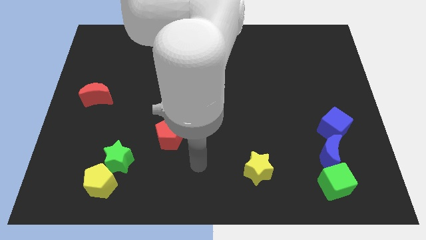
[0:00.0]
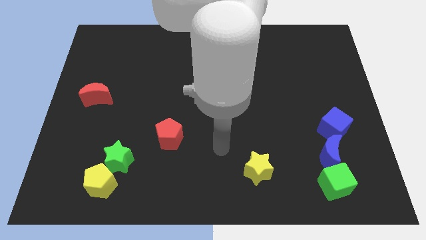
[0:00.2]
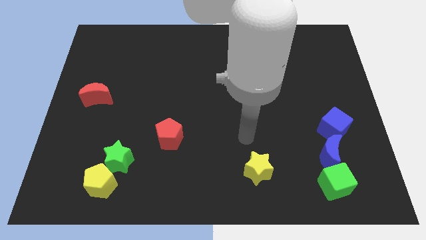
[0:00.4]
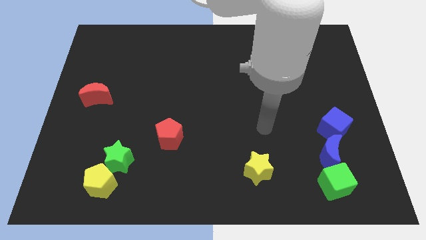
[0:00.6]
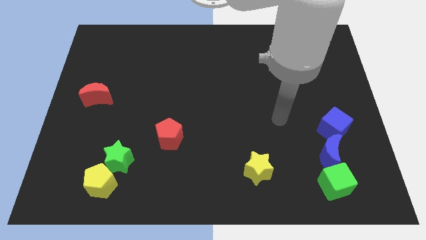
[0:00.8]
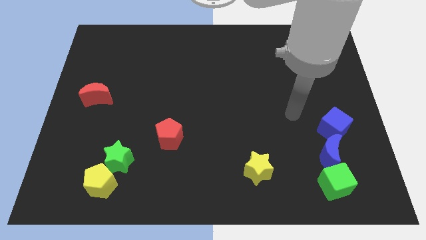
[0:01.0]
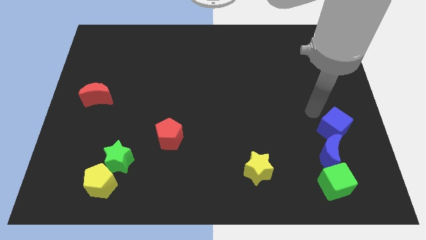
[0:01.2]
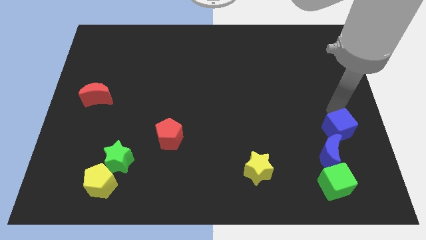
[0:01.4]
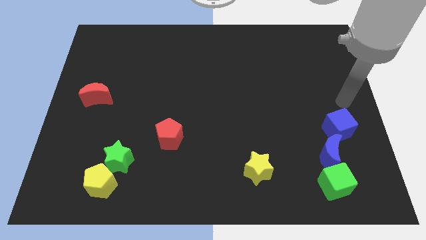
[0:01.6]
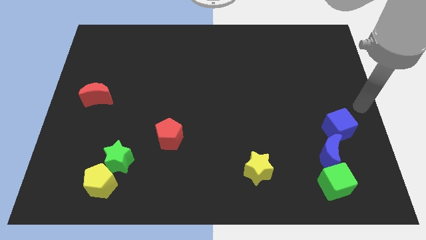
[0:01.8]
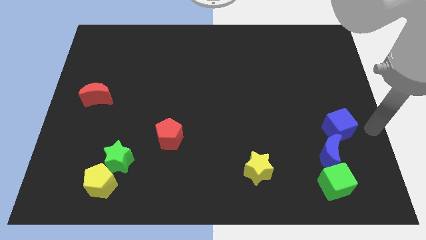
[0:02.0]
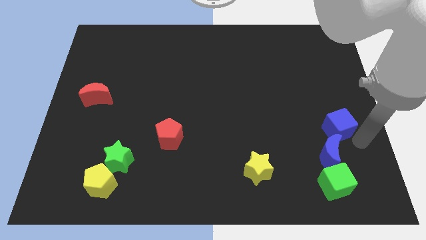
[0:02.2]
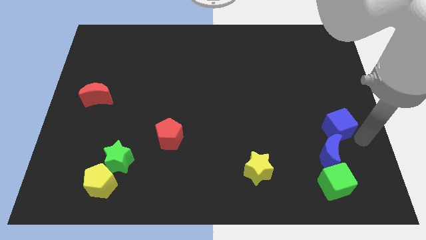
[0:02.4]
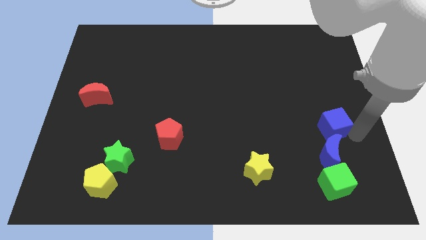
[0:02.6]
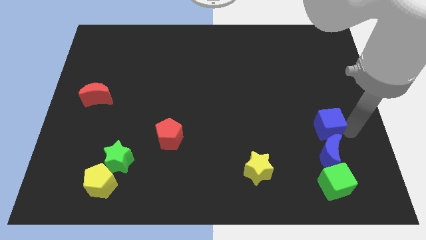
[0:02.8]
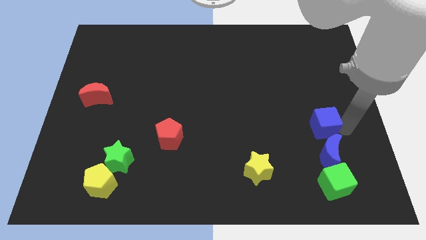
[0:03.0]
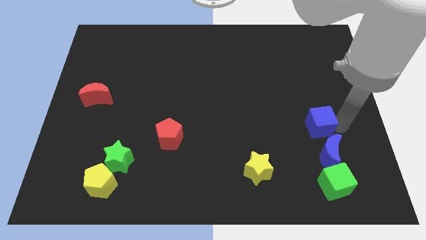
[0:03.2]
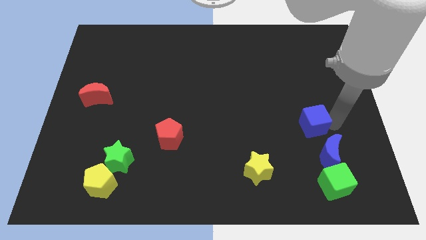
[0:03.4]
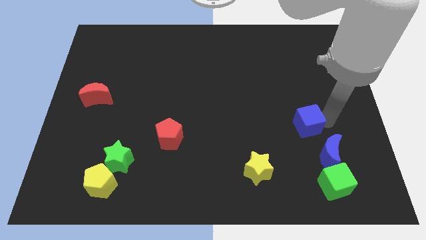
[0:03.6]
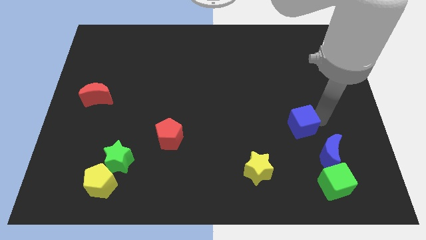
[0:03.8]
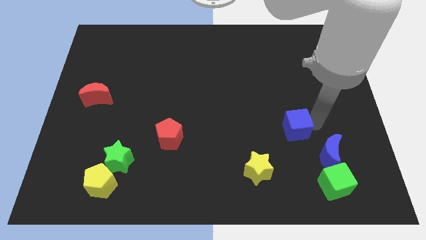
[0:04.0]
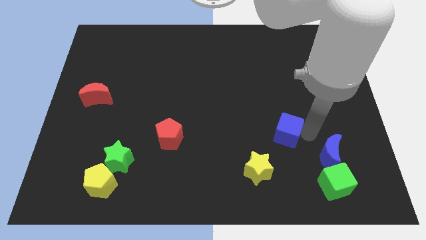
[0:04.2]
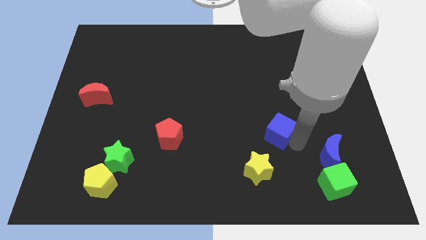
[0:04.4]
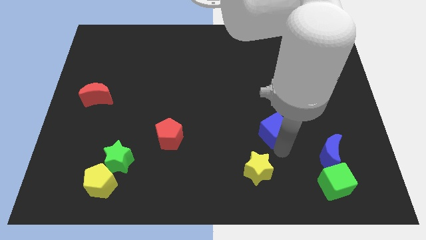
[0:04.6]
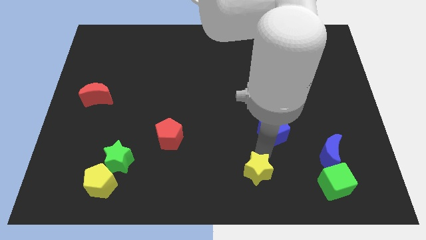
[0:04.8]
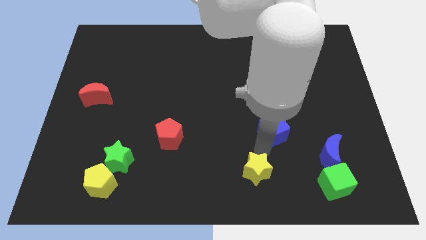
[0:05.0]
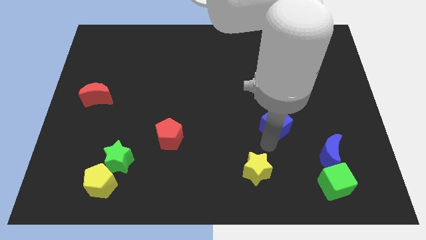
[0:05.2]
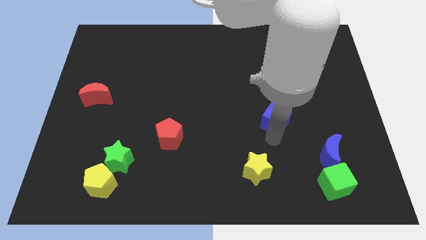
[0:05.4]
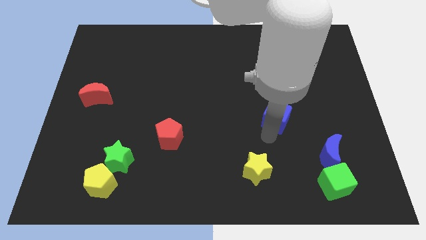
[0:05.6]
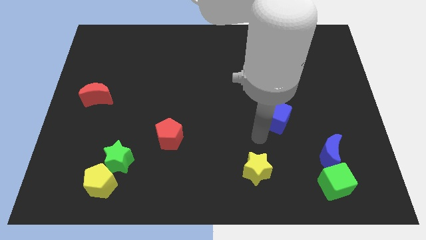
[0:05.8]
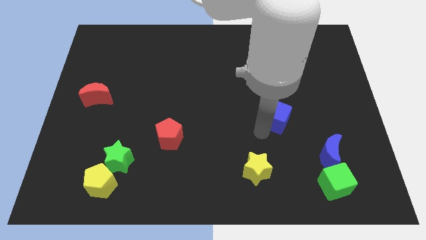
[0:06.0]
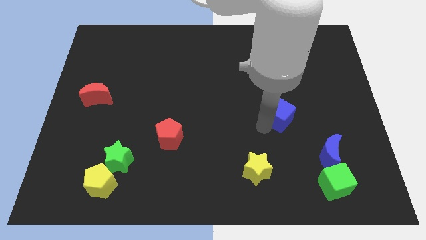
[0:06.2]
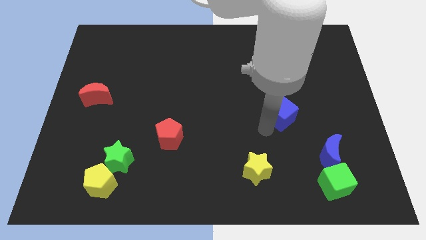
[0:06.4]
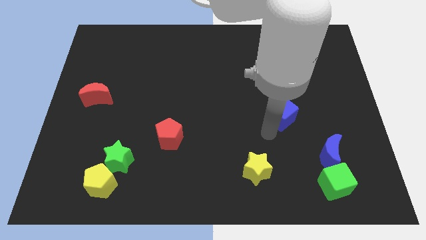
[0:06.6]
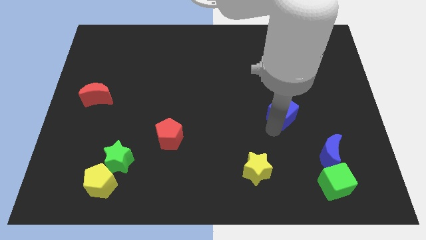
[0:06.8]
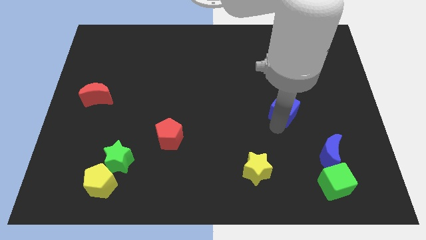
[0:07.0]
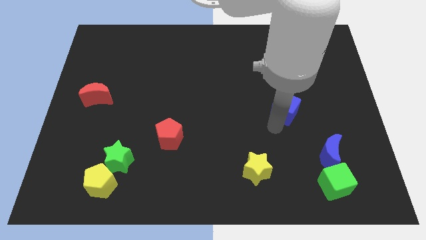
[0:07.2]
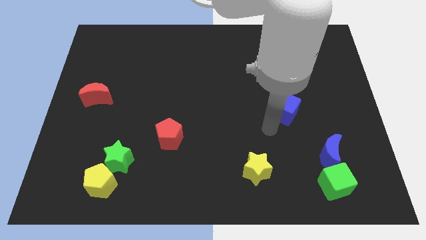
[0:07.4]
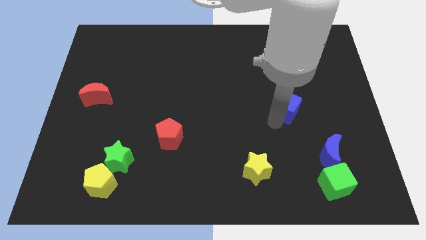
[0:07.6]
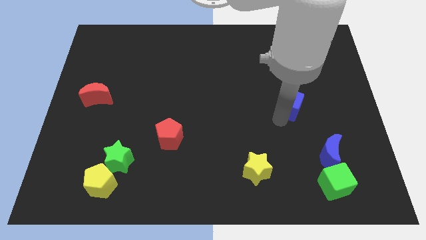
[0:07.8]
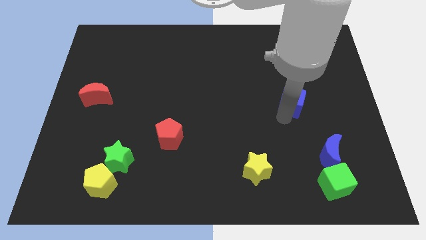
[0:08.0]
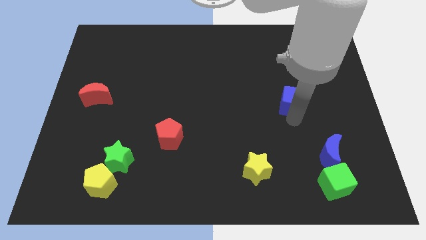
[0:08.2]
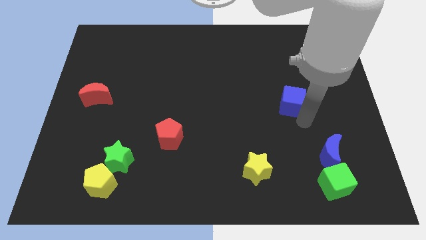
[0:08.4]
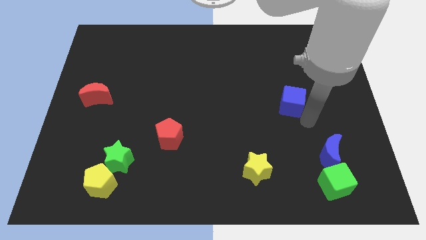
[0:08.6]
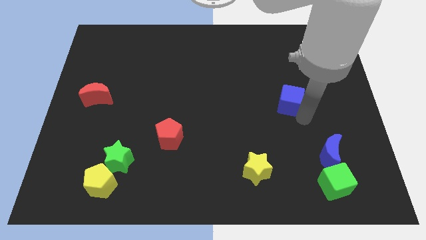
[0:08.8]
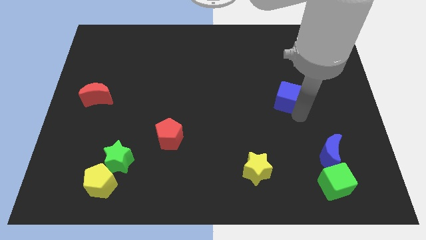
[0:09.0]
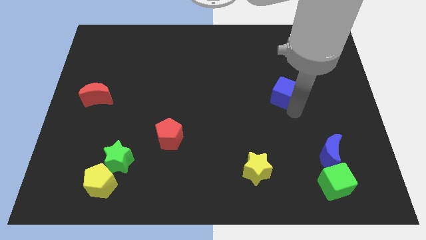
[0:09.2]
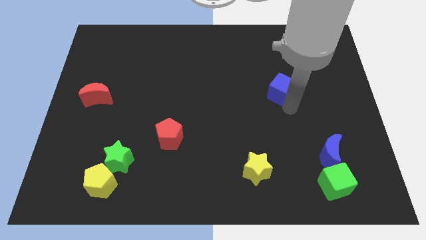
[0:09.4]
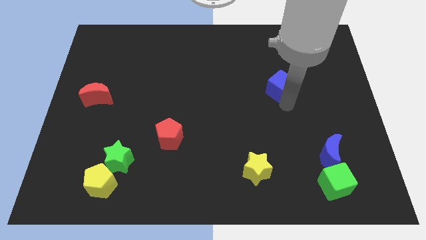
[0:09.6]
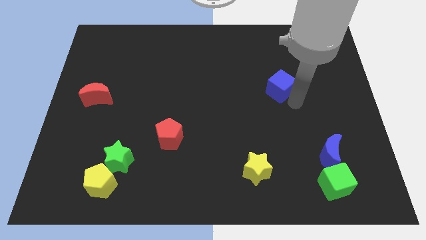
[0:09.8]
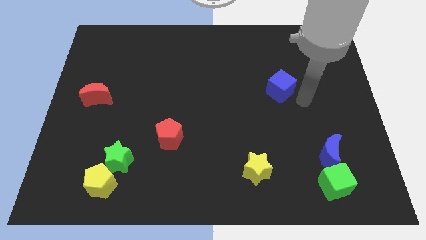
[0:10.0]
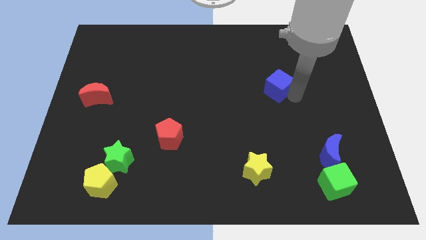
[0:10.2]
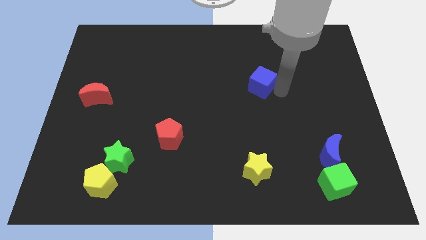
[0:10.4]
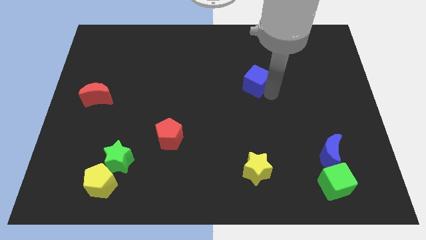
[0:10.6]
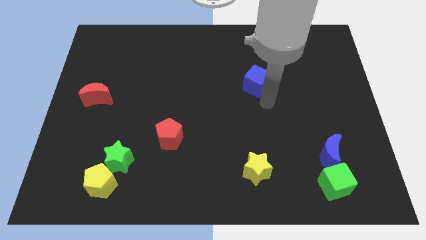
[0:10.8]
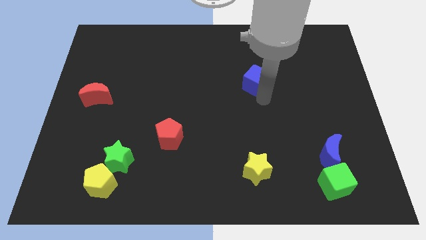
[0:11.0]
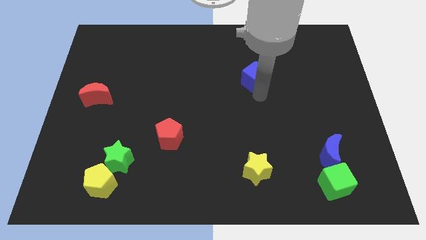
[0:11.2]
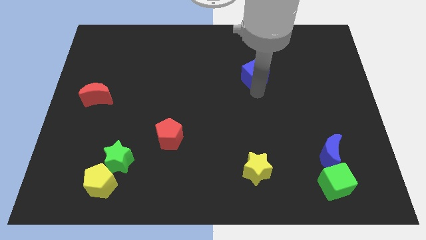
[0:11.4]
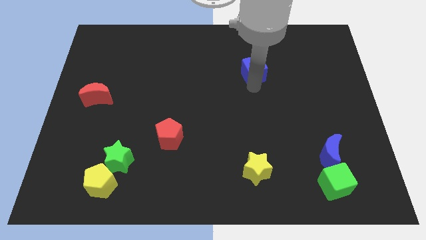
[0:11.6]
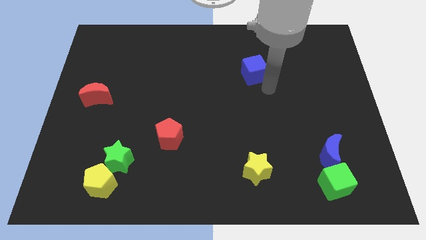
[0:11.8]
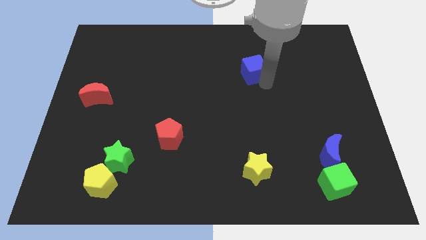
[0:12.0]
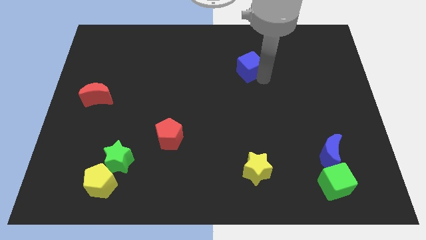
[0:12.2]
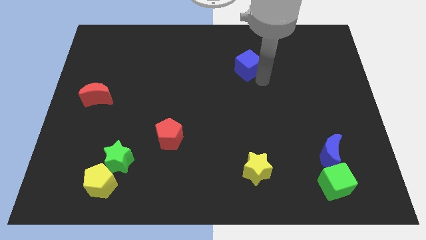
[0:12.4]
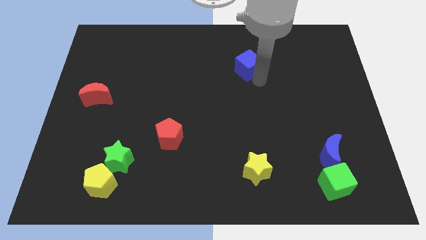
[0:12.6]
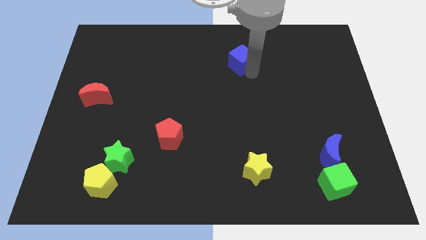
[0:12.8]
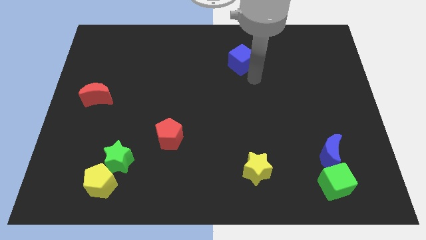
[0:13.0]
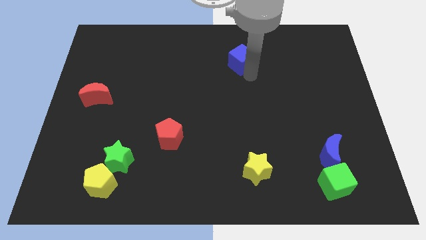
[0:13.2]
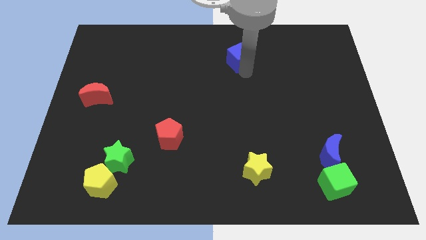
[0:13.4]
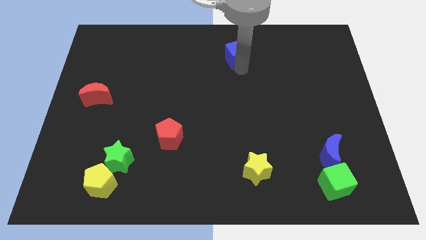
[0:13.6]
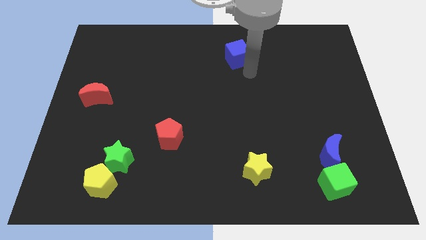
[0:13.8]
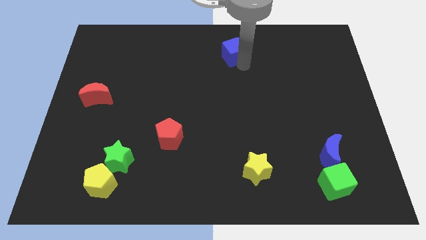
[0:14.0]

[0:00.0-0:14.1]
move the blue cube to the top
